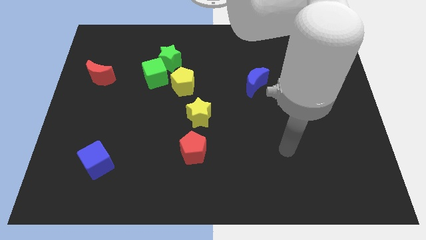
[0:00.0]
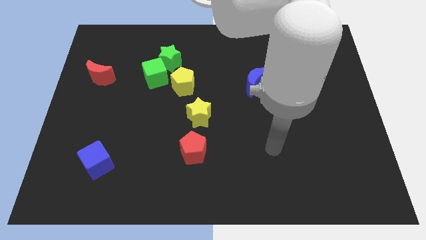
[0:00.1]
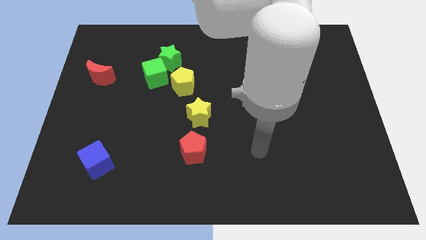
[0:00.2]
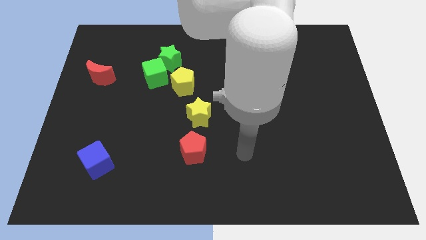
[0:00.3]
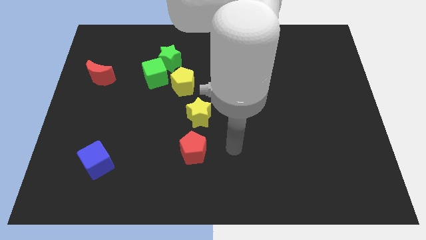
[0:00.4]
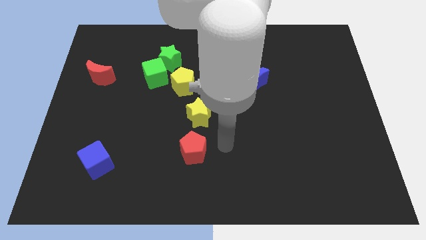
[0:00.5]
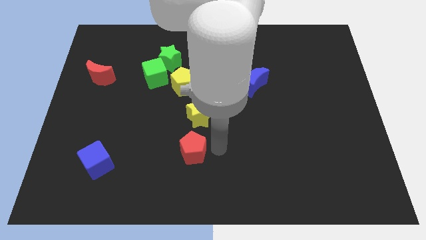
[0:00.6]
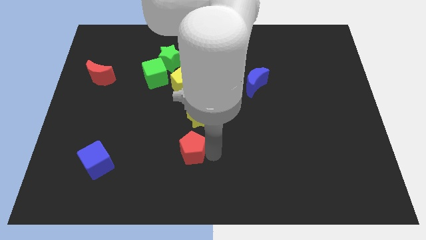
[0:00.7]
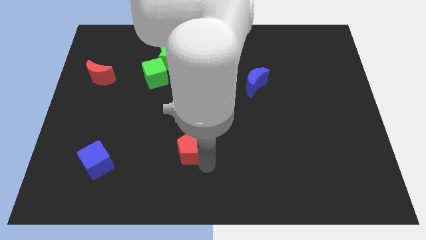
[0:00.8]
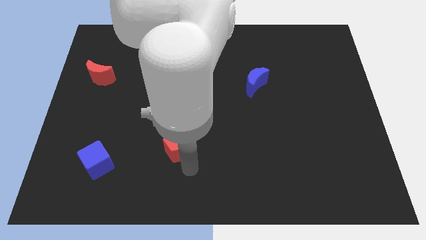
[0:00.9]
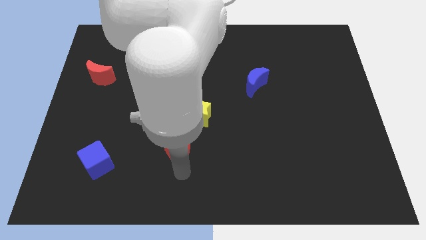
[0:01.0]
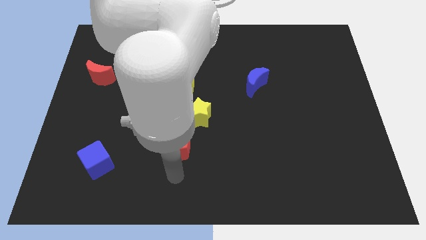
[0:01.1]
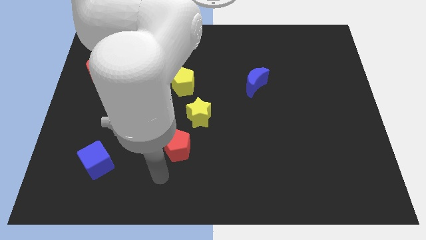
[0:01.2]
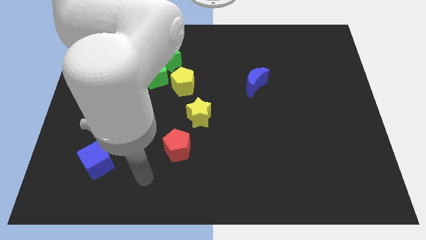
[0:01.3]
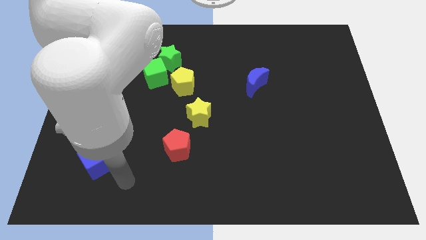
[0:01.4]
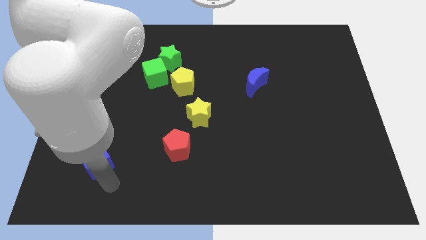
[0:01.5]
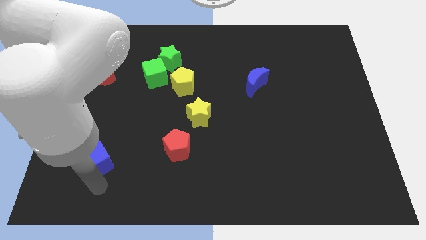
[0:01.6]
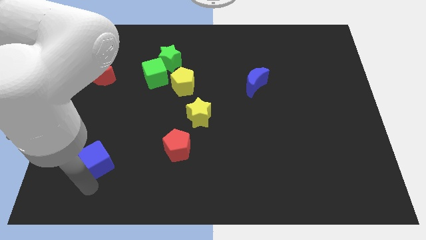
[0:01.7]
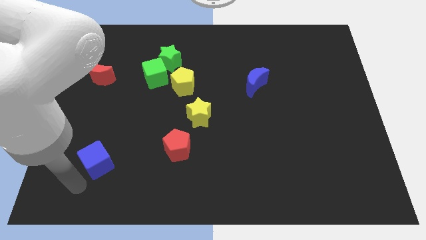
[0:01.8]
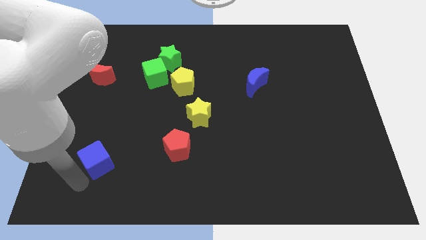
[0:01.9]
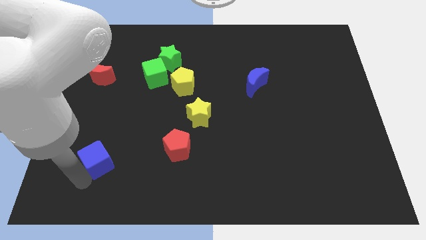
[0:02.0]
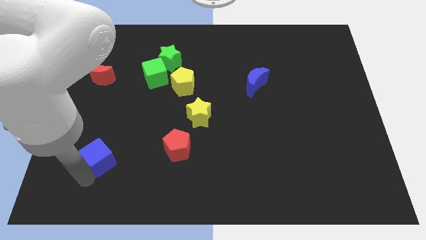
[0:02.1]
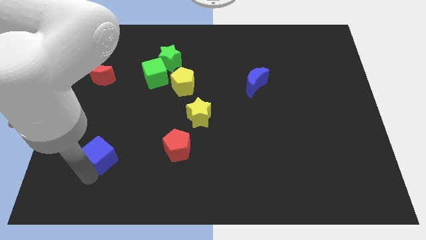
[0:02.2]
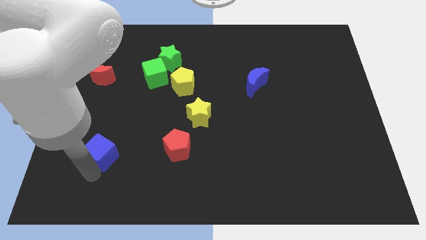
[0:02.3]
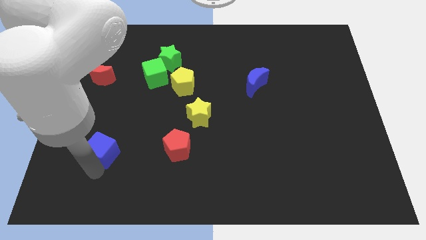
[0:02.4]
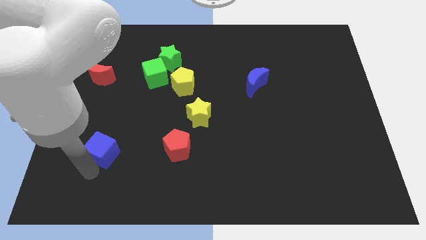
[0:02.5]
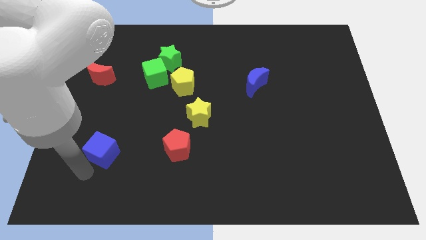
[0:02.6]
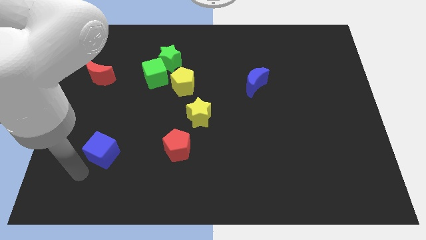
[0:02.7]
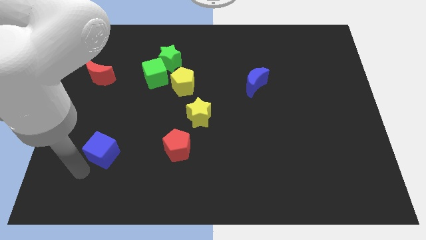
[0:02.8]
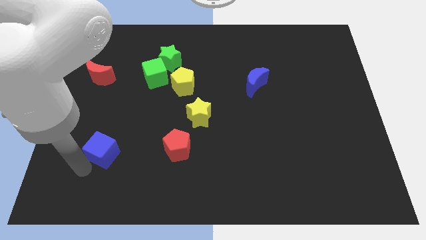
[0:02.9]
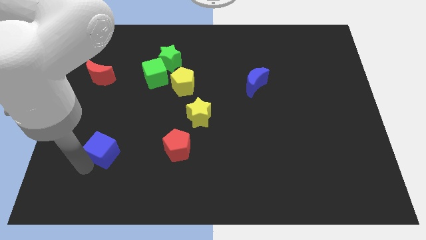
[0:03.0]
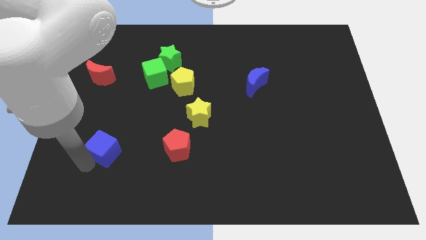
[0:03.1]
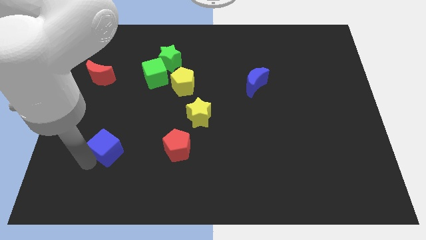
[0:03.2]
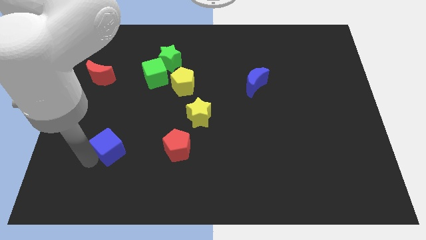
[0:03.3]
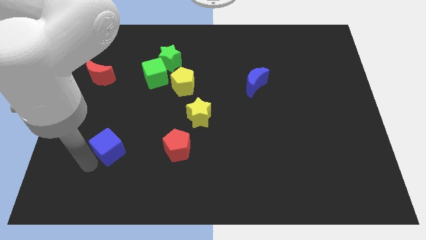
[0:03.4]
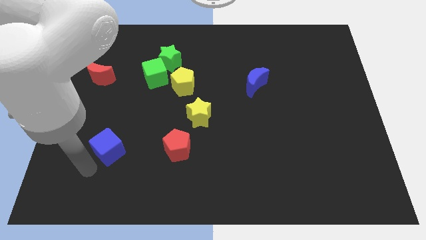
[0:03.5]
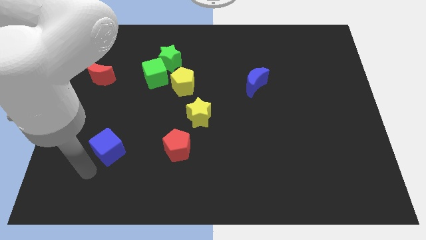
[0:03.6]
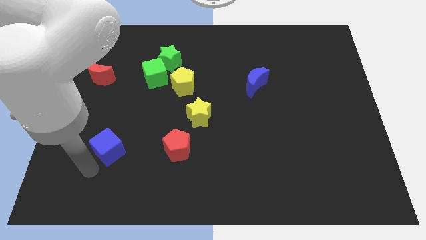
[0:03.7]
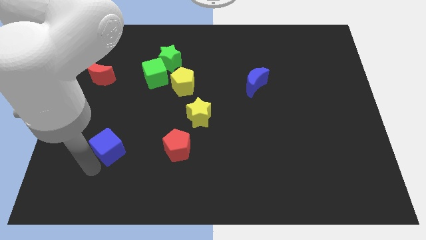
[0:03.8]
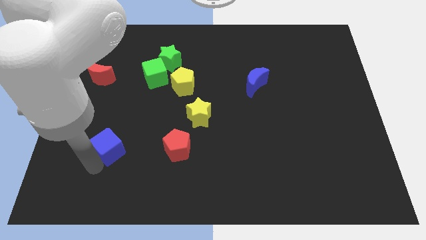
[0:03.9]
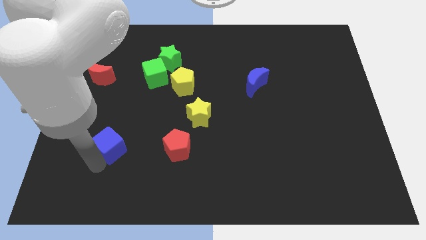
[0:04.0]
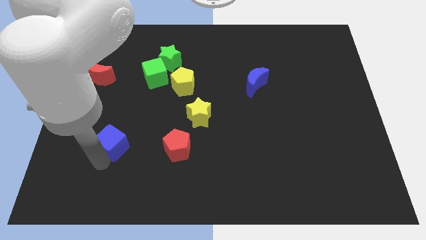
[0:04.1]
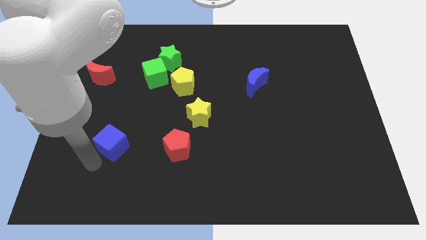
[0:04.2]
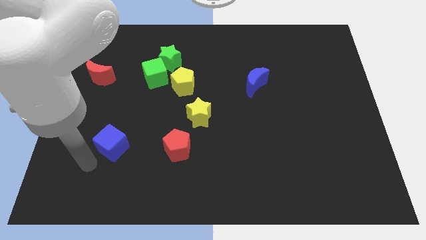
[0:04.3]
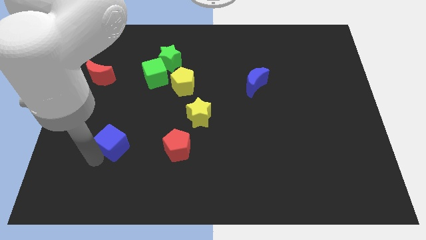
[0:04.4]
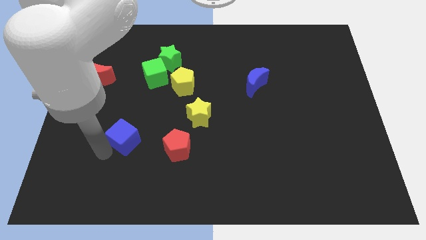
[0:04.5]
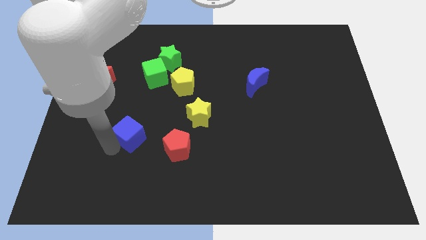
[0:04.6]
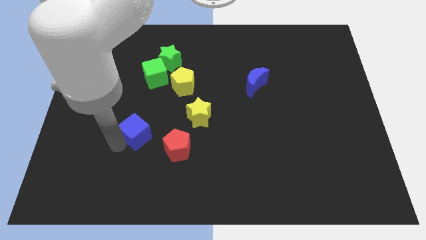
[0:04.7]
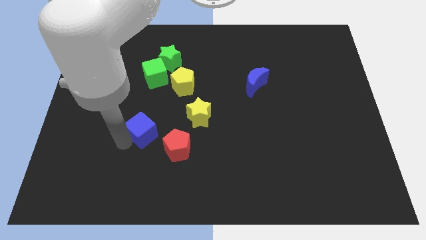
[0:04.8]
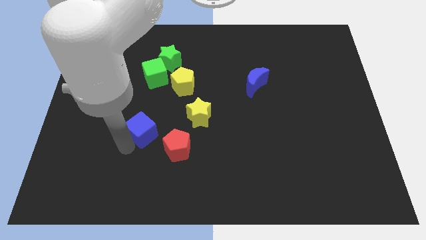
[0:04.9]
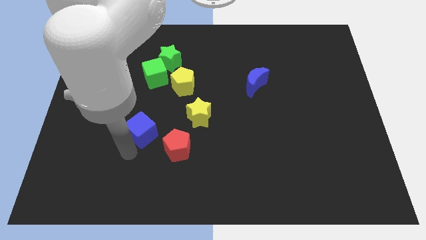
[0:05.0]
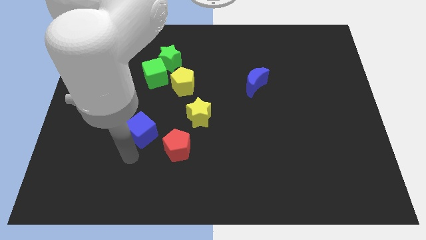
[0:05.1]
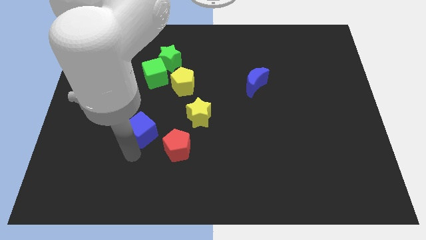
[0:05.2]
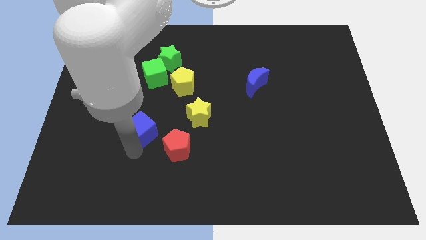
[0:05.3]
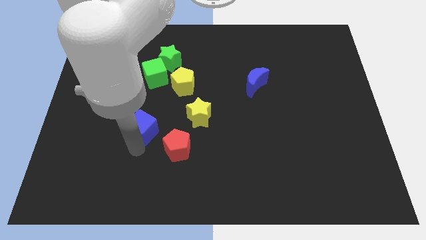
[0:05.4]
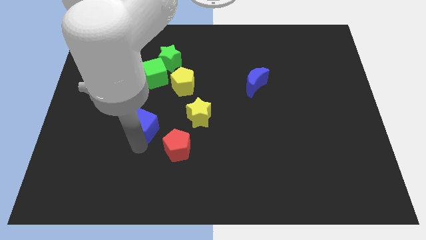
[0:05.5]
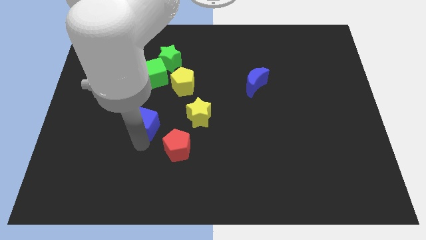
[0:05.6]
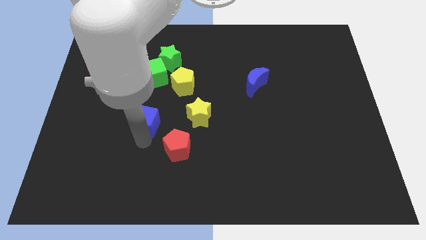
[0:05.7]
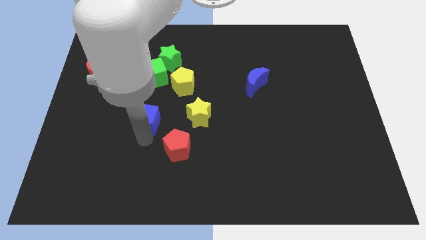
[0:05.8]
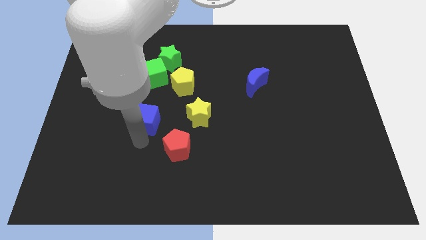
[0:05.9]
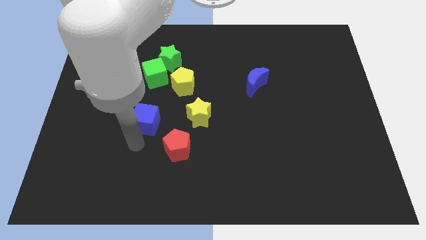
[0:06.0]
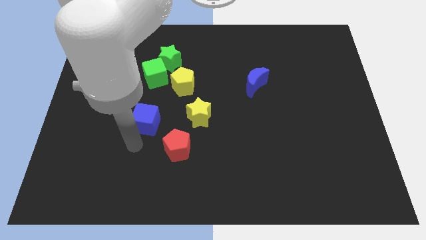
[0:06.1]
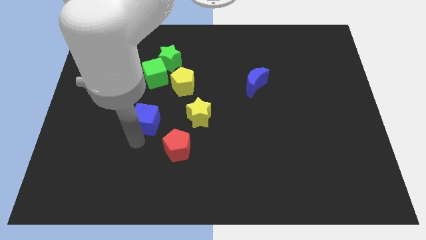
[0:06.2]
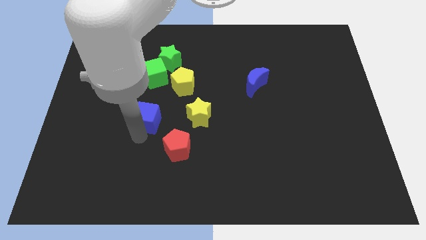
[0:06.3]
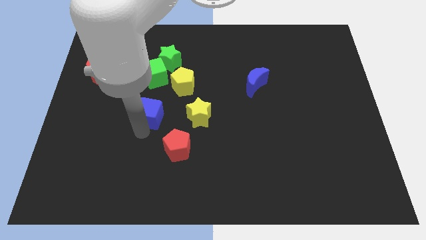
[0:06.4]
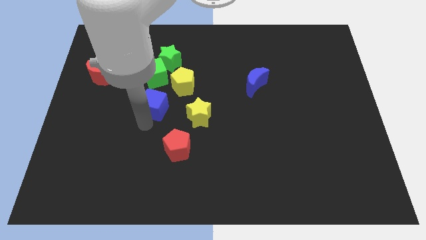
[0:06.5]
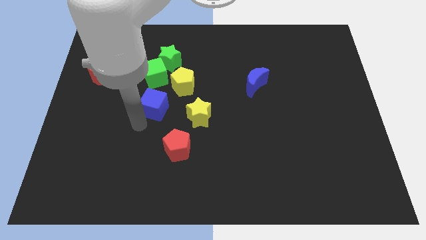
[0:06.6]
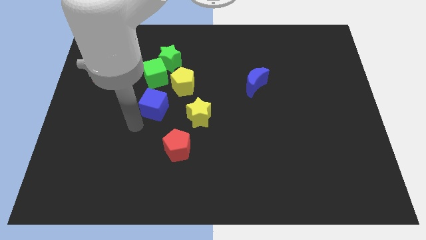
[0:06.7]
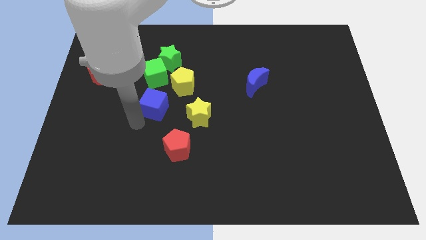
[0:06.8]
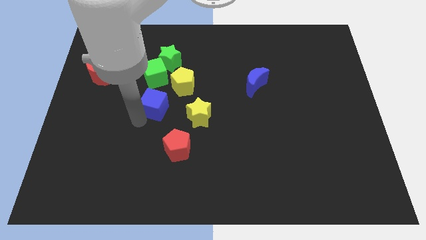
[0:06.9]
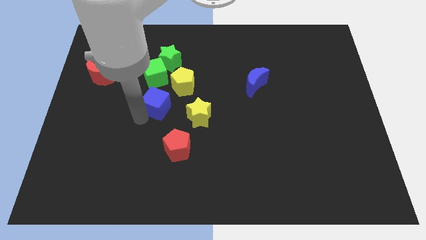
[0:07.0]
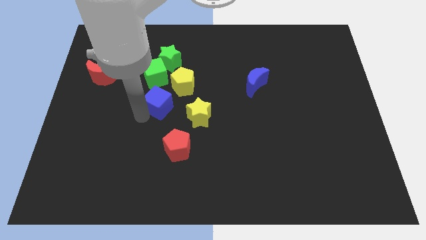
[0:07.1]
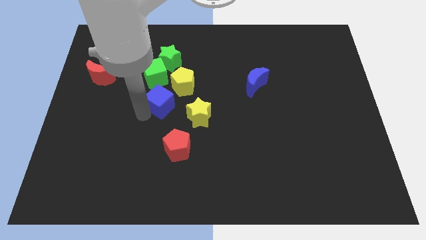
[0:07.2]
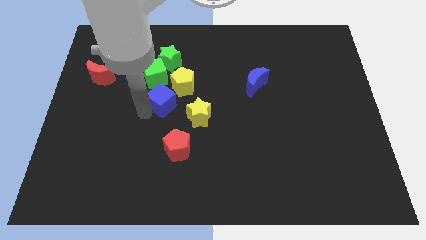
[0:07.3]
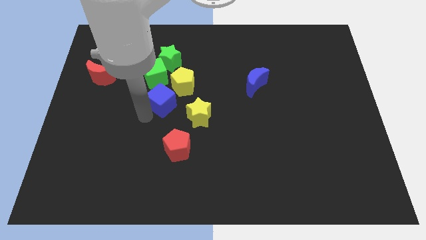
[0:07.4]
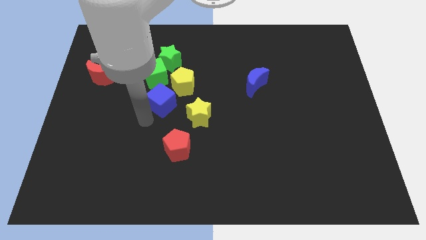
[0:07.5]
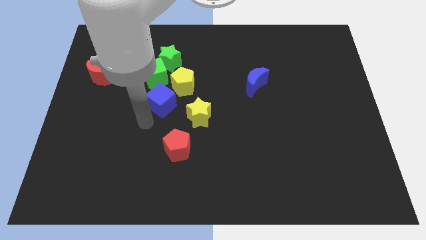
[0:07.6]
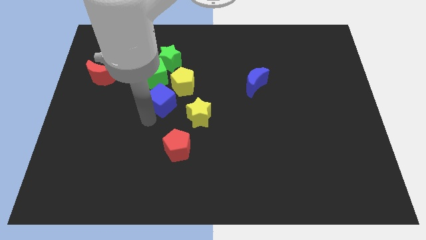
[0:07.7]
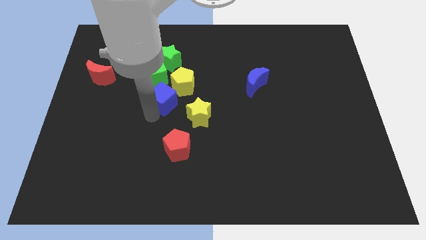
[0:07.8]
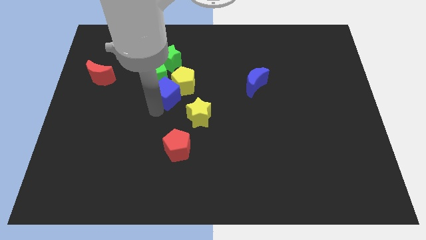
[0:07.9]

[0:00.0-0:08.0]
move the blue cube close to the yellow pentagon
